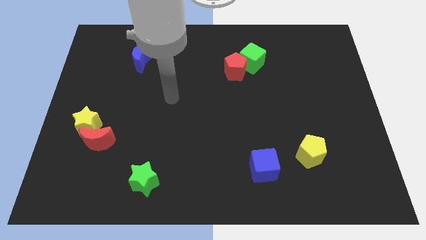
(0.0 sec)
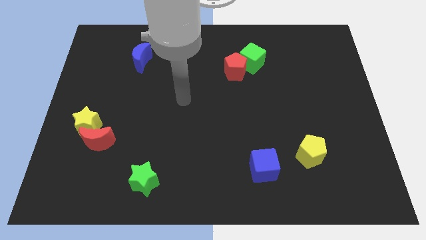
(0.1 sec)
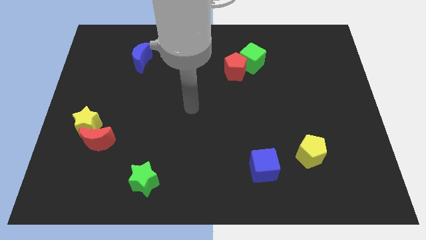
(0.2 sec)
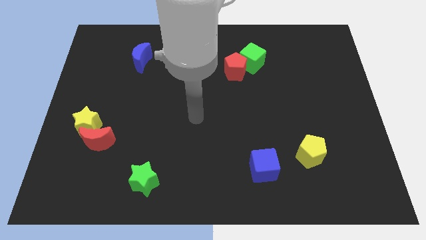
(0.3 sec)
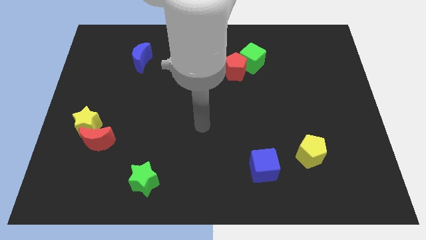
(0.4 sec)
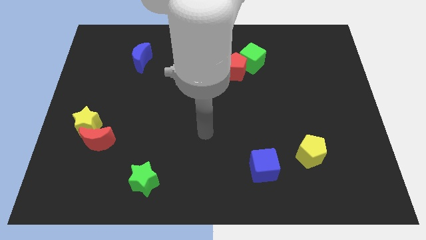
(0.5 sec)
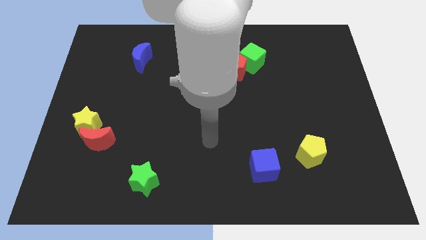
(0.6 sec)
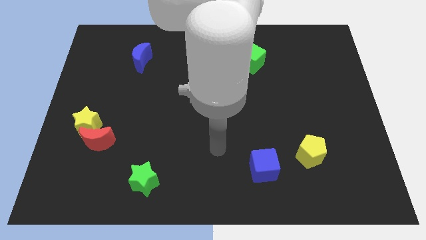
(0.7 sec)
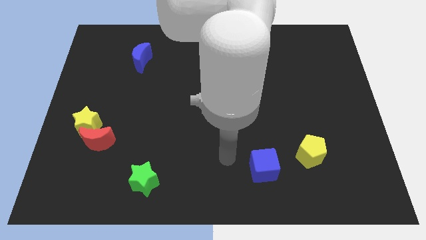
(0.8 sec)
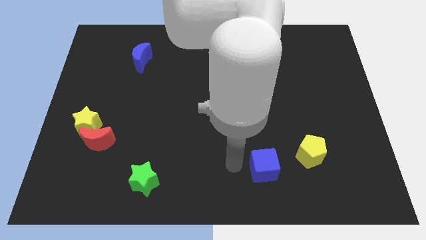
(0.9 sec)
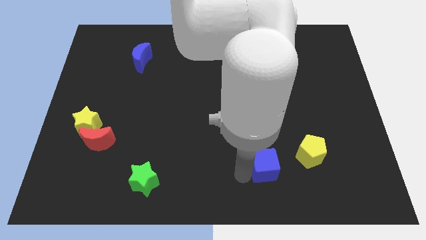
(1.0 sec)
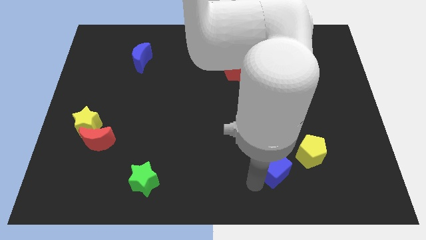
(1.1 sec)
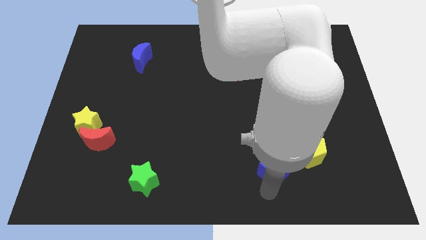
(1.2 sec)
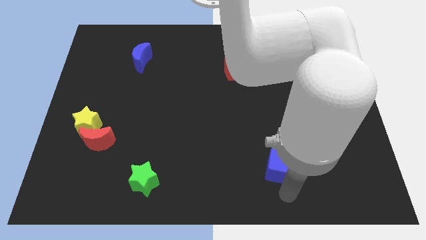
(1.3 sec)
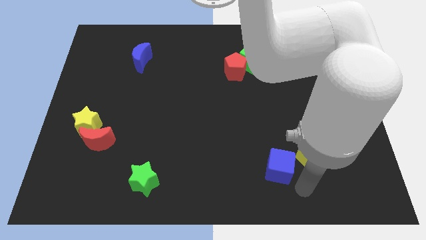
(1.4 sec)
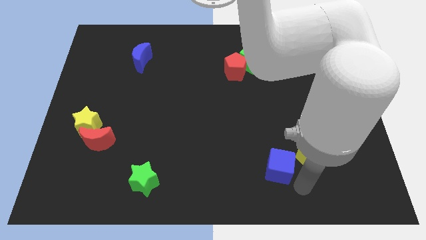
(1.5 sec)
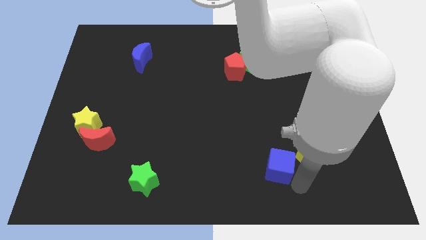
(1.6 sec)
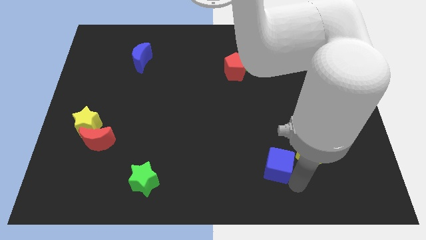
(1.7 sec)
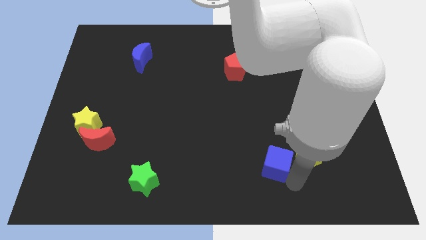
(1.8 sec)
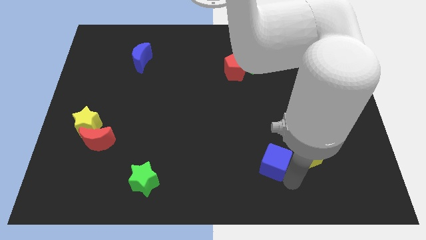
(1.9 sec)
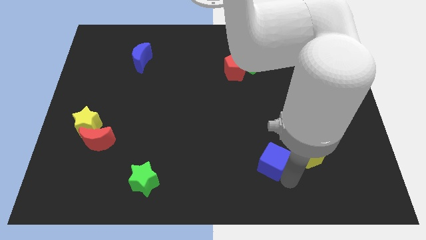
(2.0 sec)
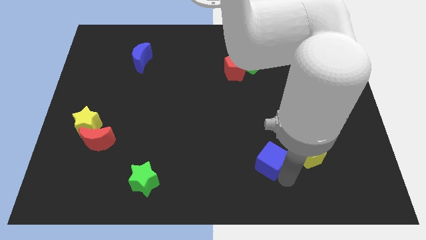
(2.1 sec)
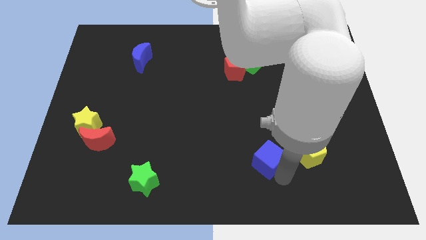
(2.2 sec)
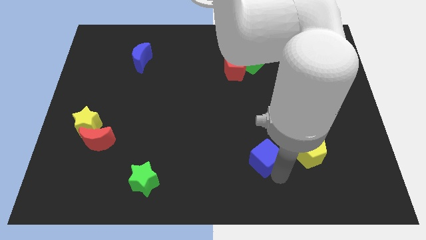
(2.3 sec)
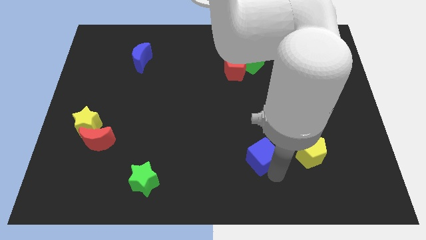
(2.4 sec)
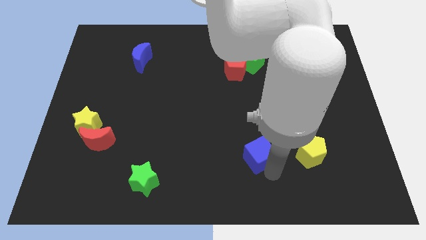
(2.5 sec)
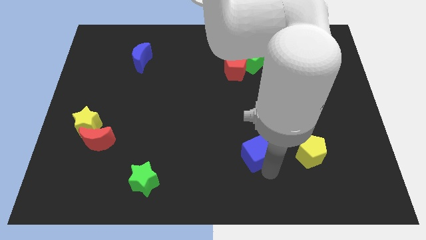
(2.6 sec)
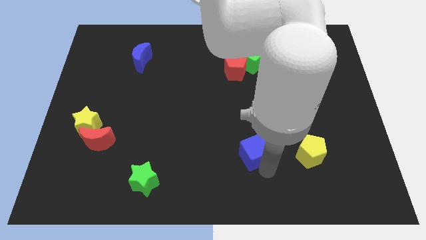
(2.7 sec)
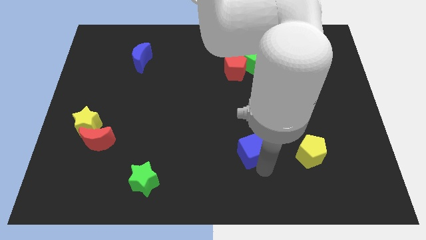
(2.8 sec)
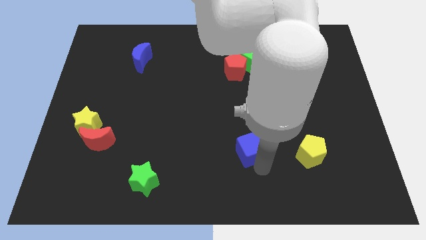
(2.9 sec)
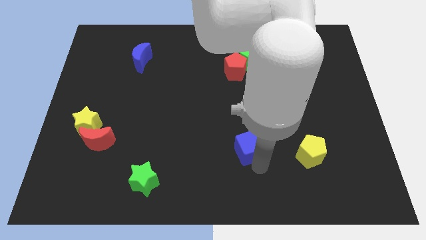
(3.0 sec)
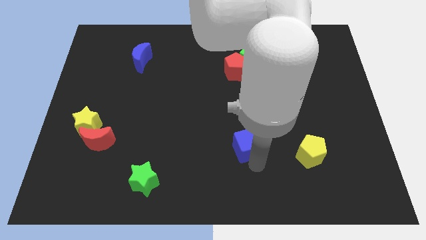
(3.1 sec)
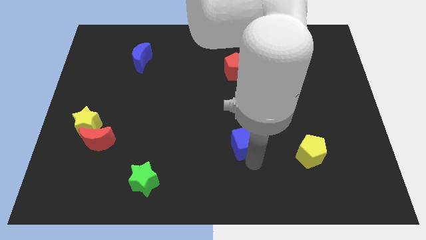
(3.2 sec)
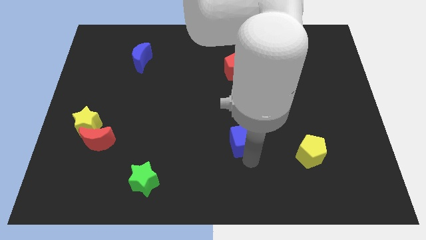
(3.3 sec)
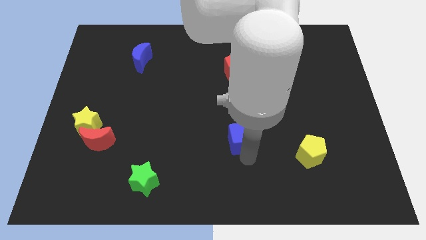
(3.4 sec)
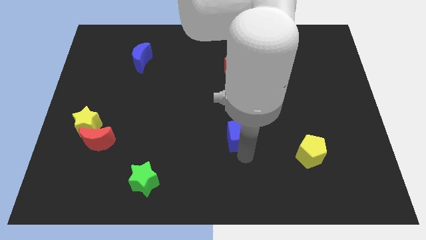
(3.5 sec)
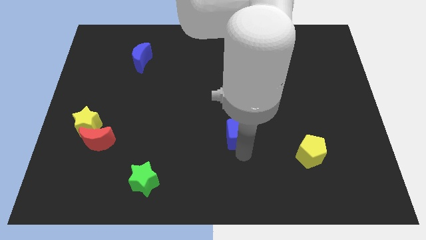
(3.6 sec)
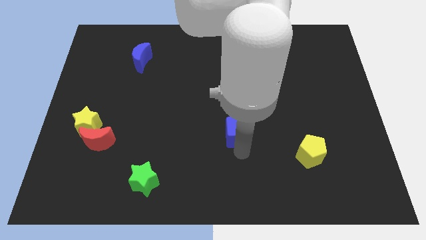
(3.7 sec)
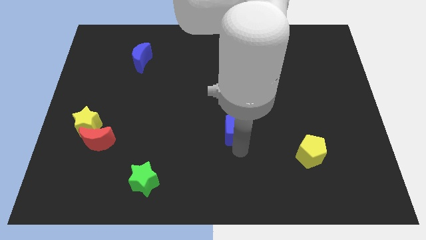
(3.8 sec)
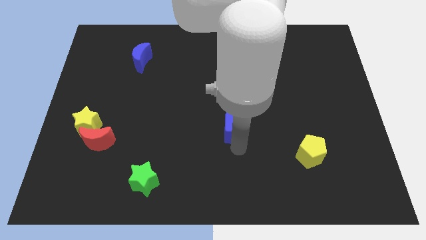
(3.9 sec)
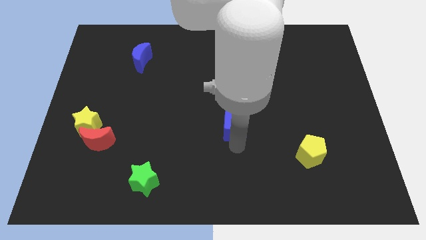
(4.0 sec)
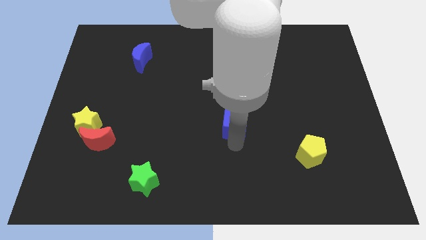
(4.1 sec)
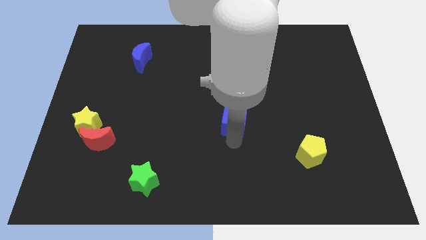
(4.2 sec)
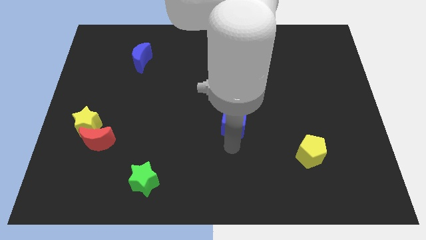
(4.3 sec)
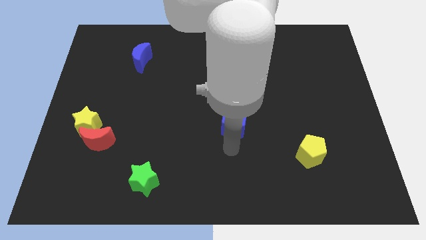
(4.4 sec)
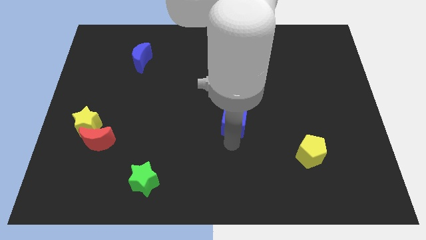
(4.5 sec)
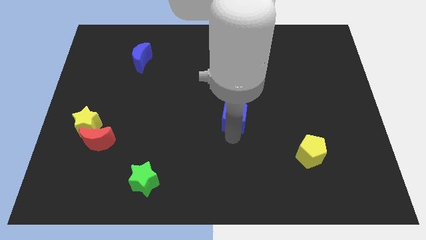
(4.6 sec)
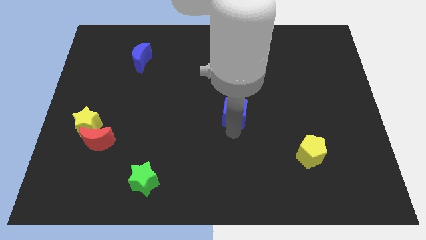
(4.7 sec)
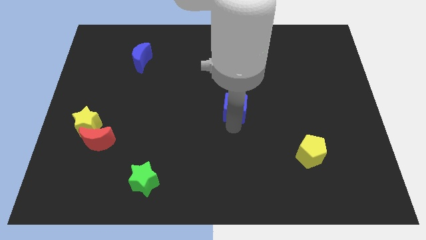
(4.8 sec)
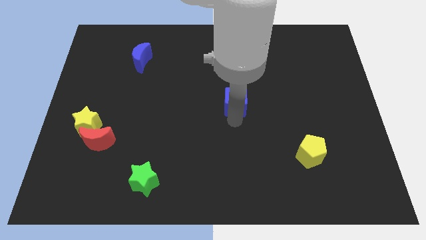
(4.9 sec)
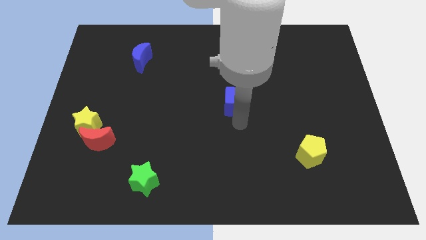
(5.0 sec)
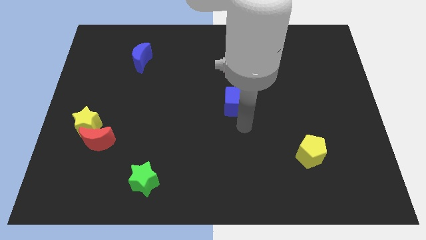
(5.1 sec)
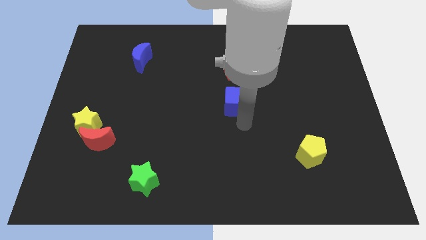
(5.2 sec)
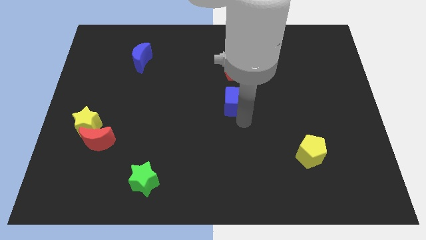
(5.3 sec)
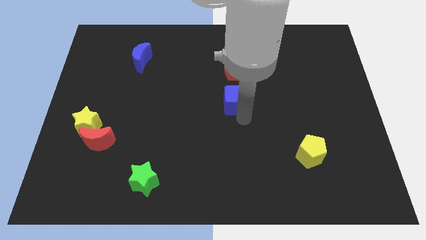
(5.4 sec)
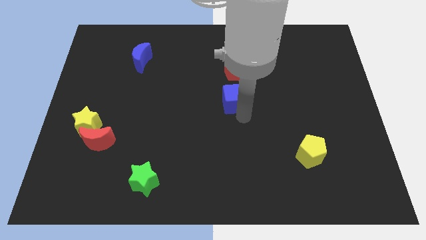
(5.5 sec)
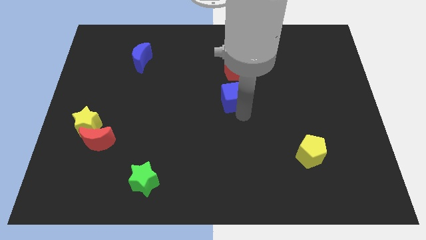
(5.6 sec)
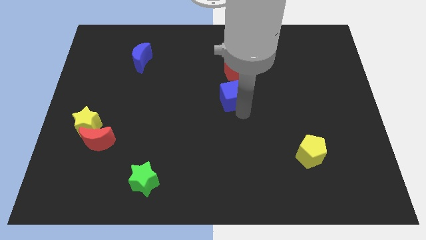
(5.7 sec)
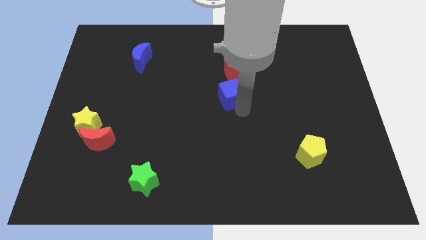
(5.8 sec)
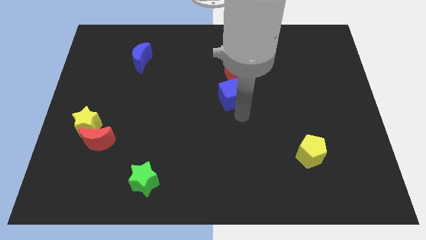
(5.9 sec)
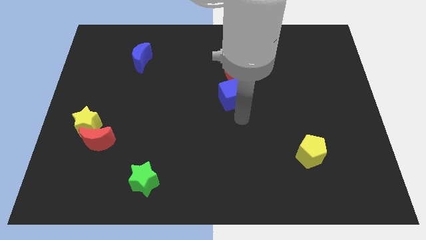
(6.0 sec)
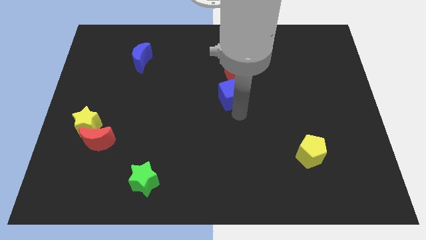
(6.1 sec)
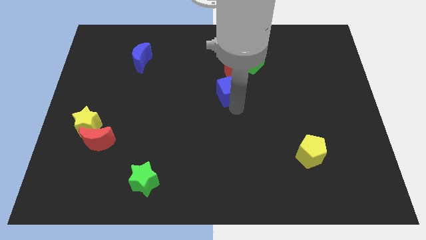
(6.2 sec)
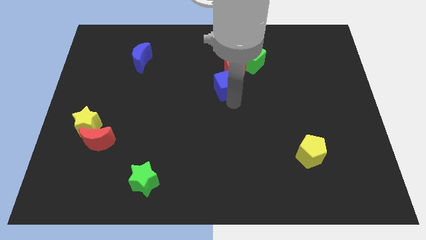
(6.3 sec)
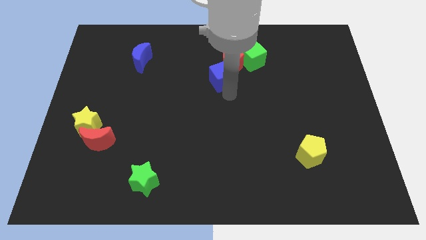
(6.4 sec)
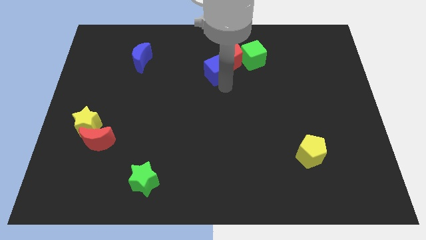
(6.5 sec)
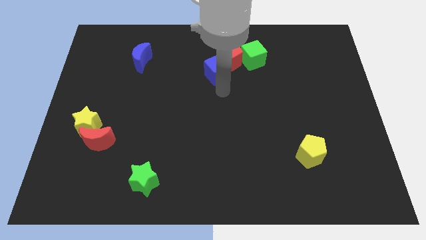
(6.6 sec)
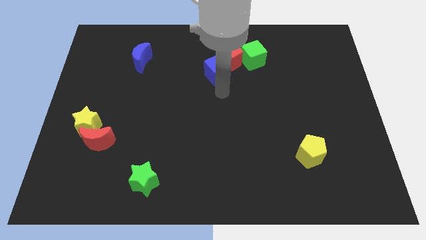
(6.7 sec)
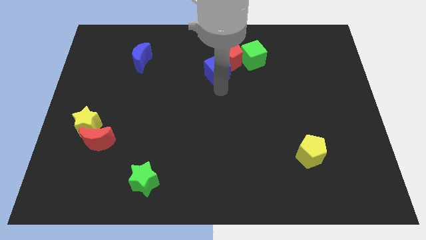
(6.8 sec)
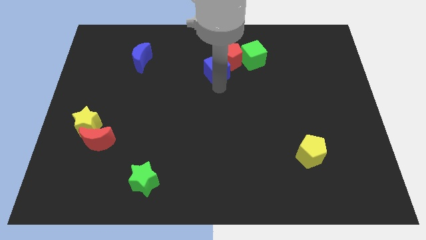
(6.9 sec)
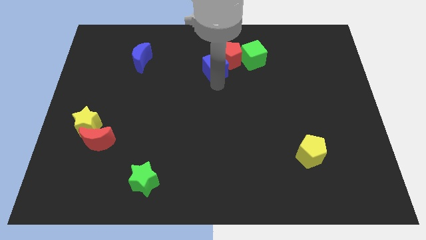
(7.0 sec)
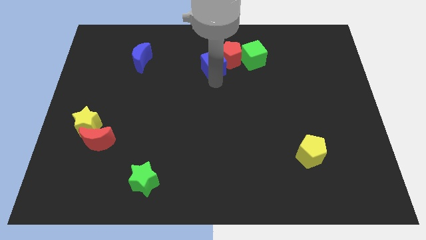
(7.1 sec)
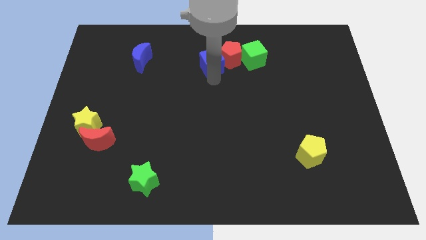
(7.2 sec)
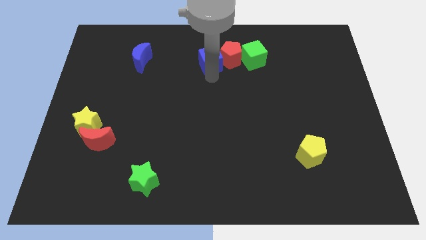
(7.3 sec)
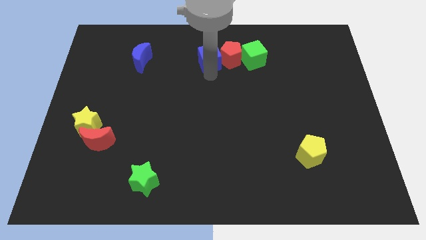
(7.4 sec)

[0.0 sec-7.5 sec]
slide the blue cube to the top left of the red pentagon
